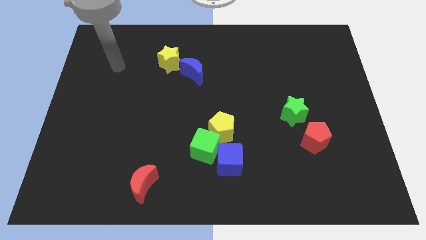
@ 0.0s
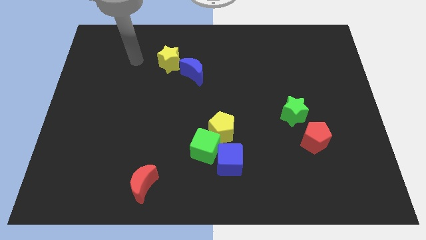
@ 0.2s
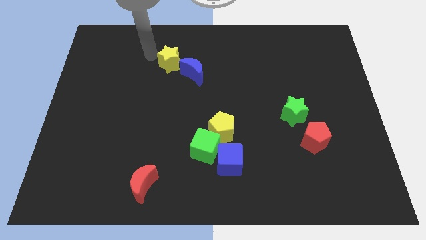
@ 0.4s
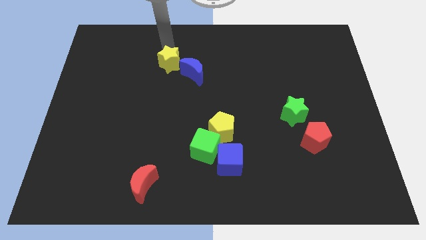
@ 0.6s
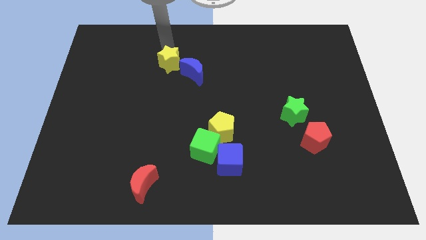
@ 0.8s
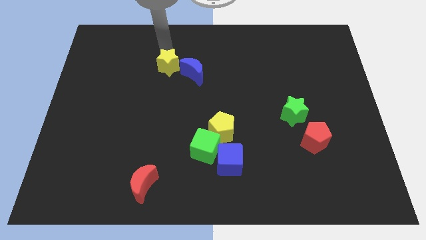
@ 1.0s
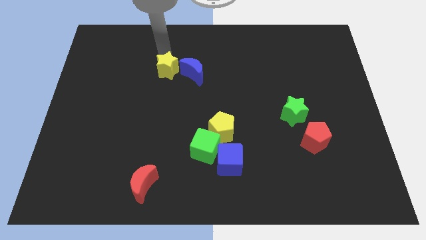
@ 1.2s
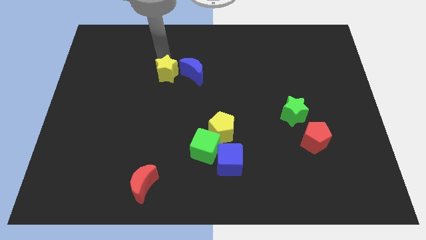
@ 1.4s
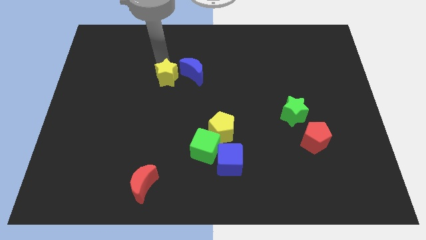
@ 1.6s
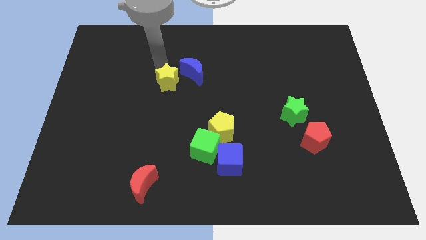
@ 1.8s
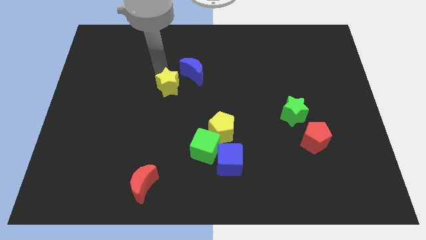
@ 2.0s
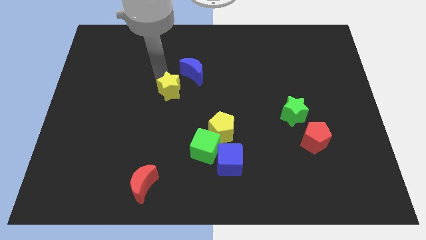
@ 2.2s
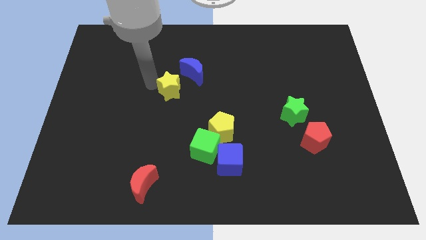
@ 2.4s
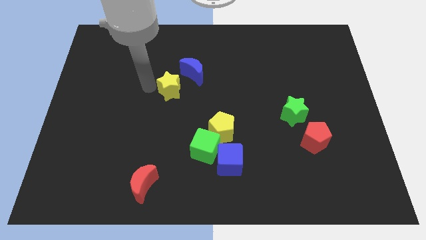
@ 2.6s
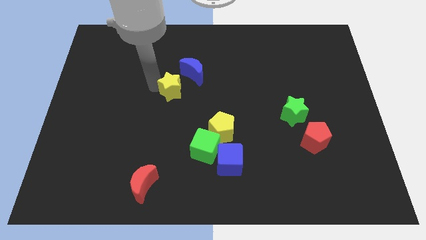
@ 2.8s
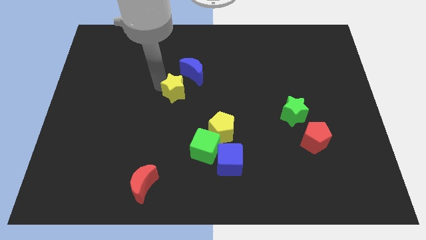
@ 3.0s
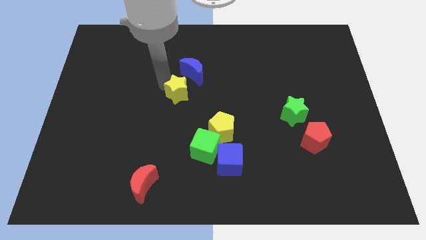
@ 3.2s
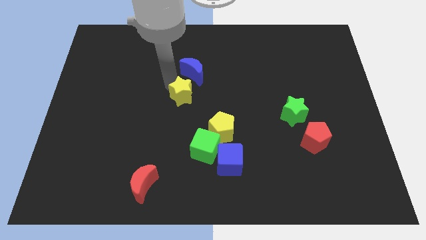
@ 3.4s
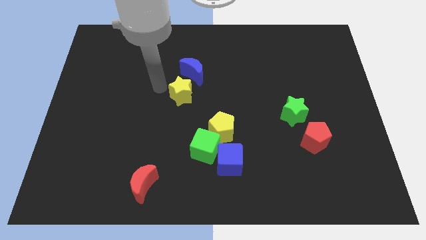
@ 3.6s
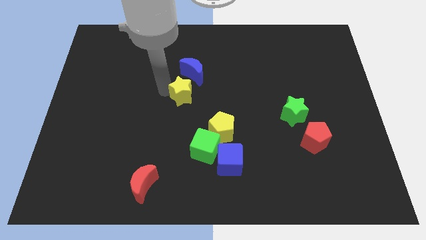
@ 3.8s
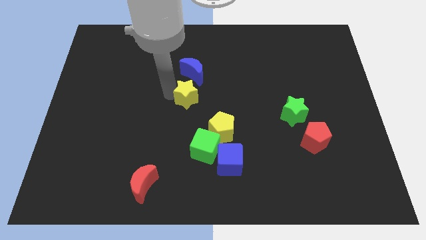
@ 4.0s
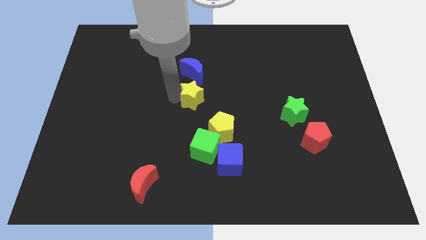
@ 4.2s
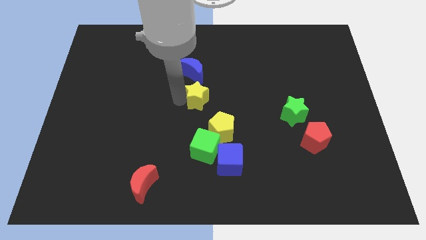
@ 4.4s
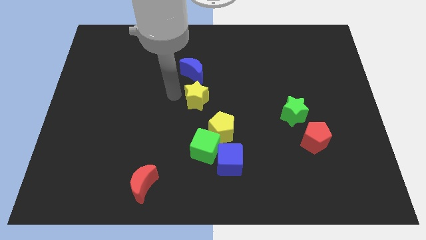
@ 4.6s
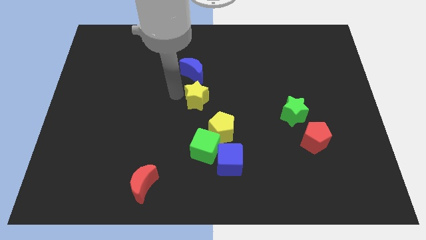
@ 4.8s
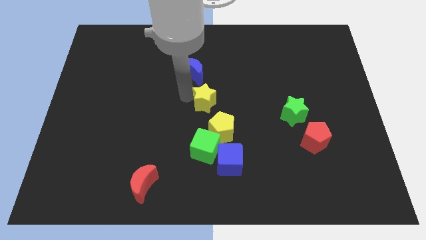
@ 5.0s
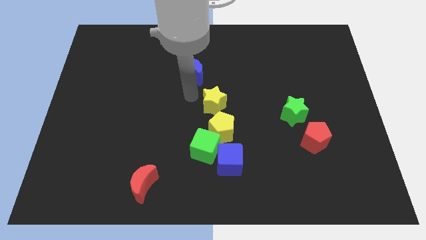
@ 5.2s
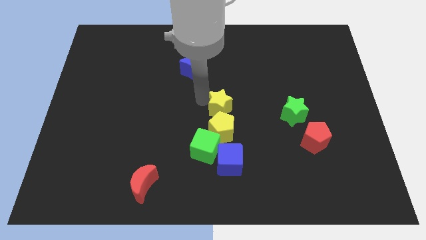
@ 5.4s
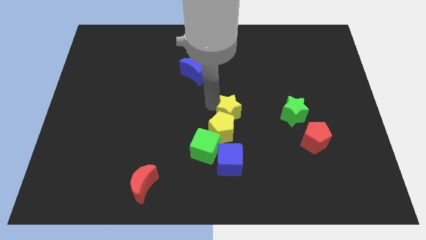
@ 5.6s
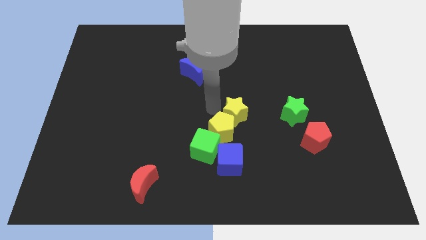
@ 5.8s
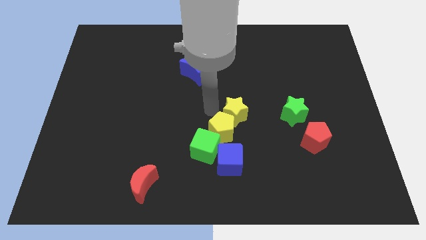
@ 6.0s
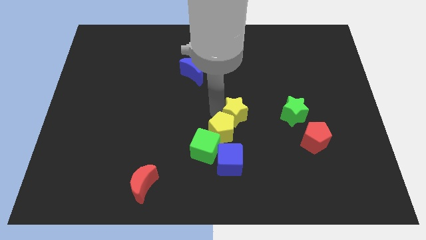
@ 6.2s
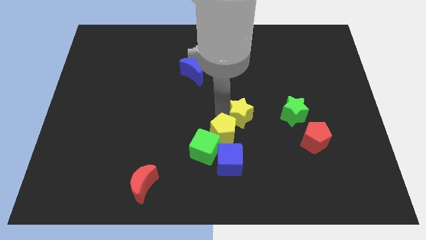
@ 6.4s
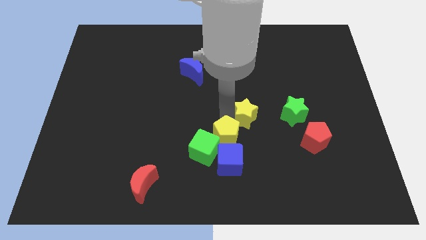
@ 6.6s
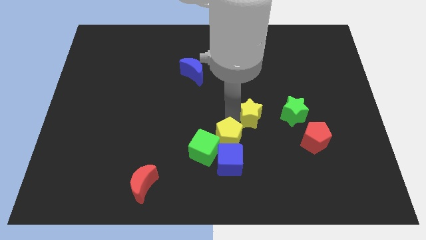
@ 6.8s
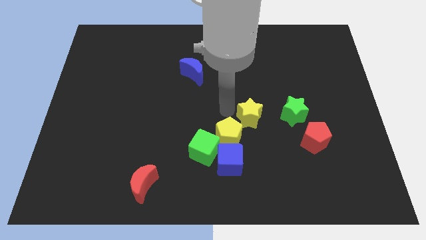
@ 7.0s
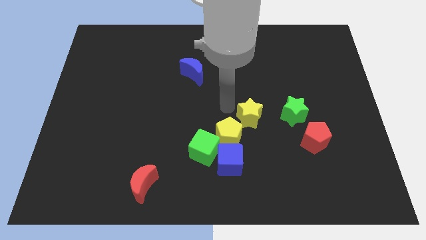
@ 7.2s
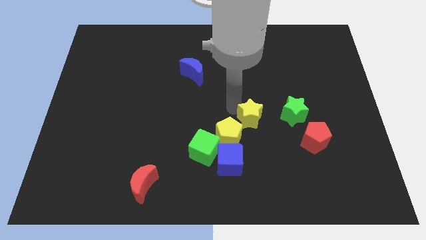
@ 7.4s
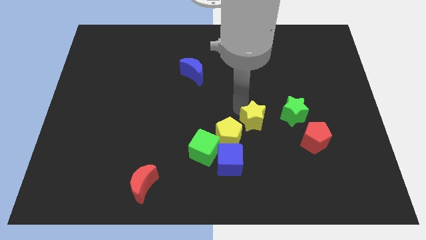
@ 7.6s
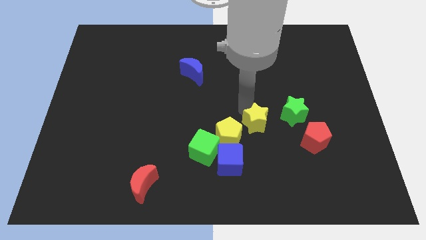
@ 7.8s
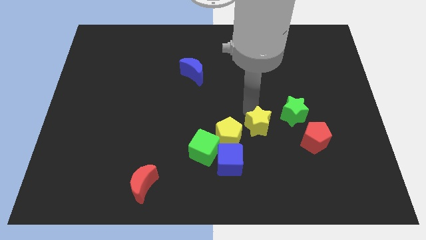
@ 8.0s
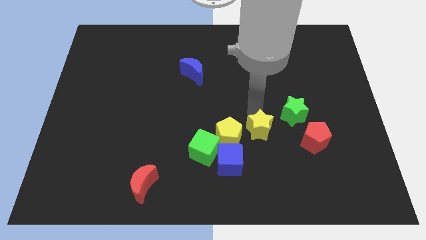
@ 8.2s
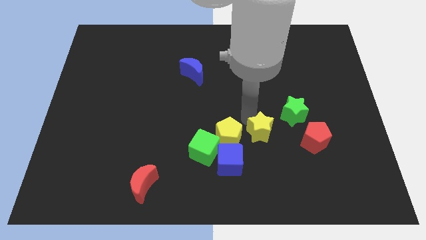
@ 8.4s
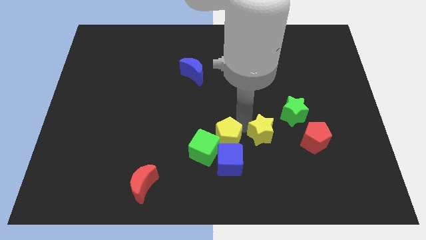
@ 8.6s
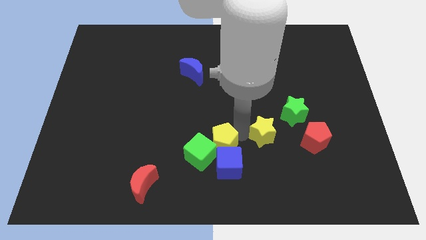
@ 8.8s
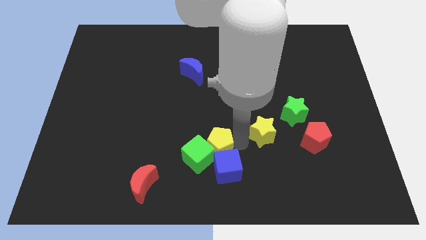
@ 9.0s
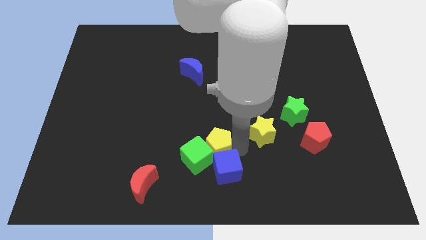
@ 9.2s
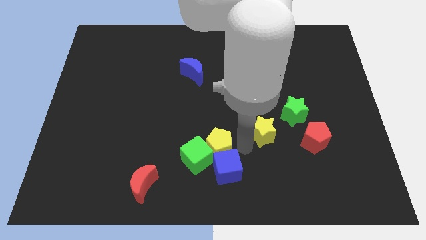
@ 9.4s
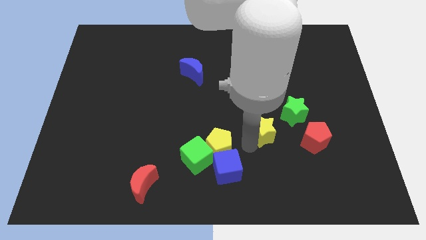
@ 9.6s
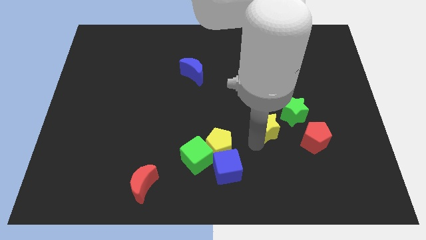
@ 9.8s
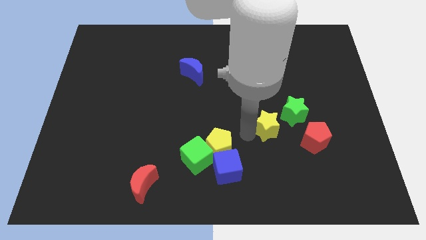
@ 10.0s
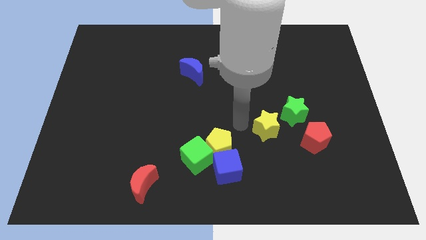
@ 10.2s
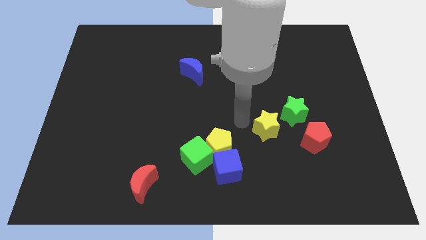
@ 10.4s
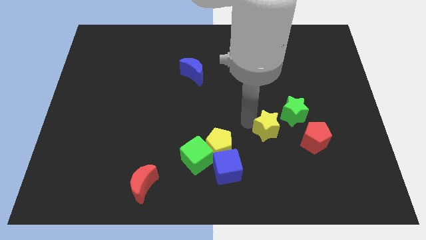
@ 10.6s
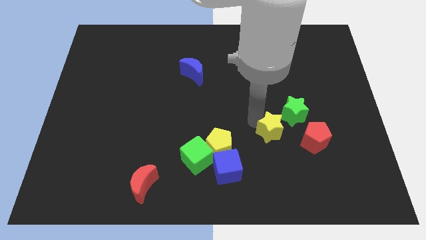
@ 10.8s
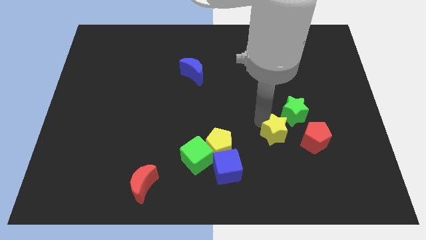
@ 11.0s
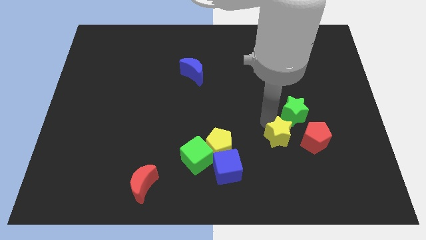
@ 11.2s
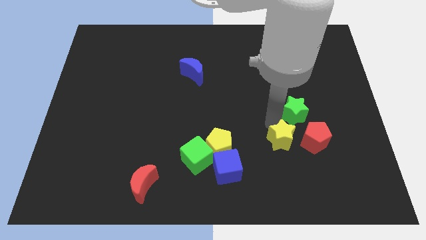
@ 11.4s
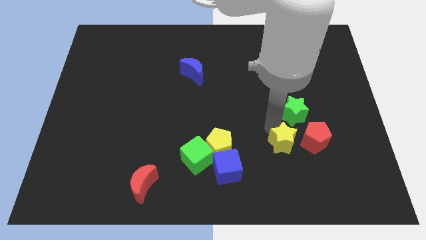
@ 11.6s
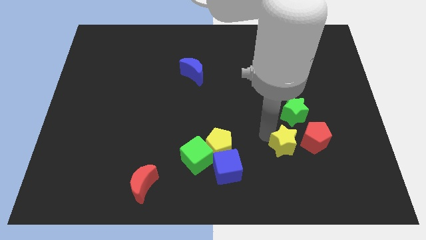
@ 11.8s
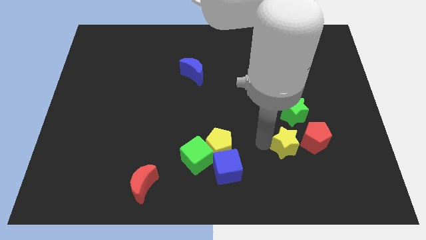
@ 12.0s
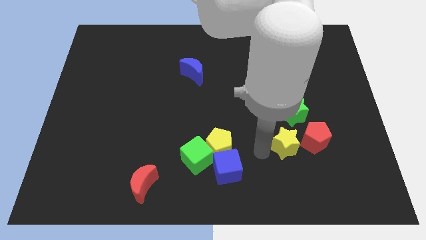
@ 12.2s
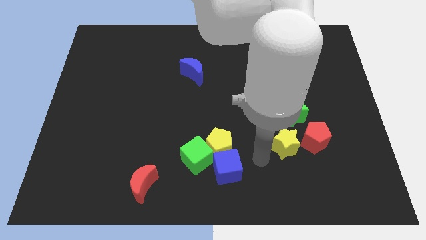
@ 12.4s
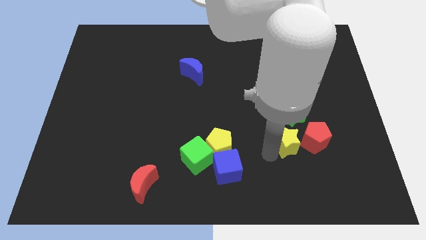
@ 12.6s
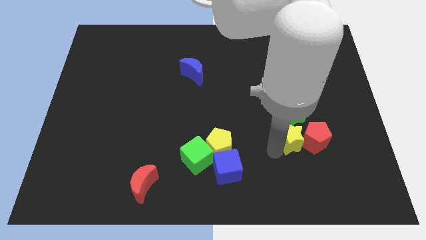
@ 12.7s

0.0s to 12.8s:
slide the yellow star to the red pentagon
